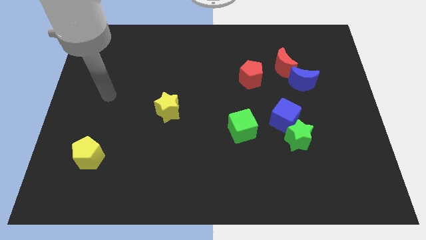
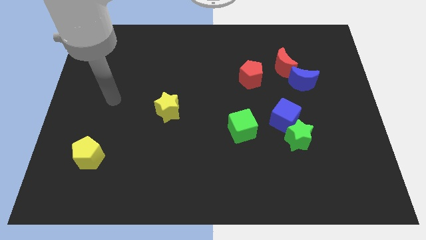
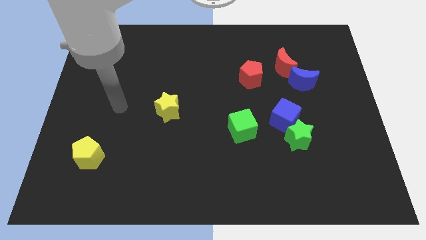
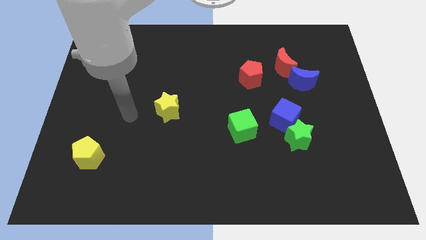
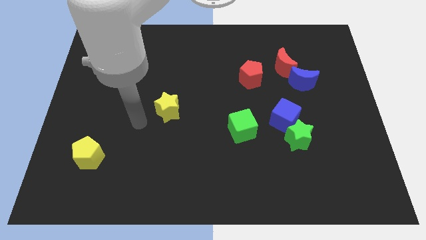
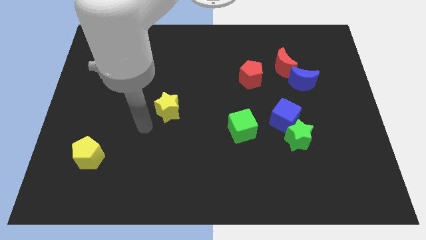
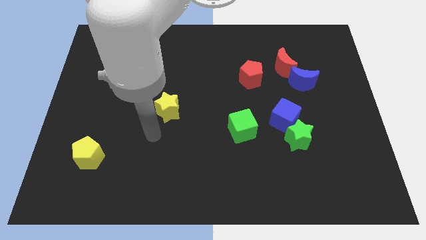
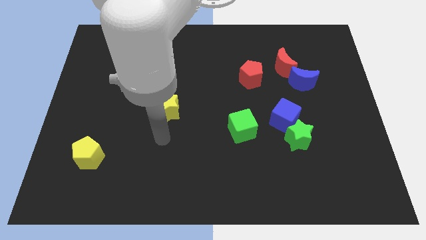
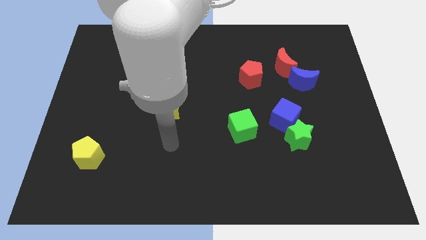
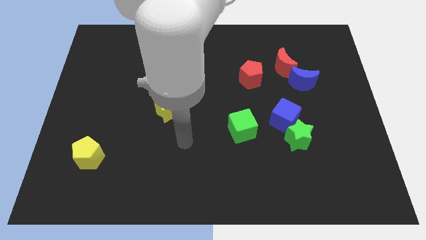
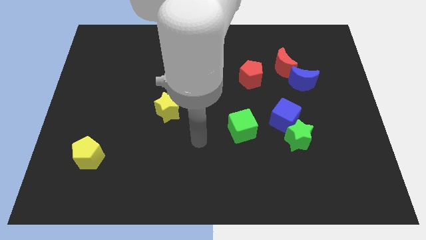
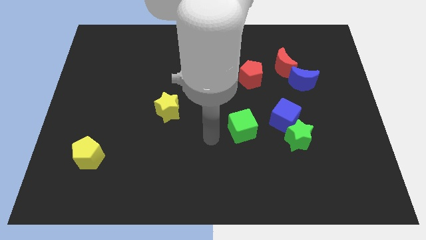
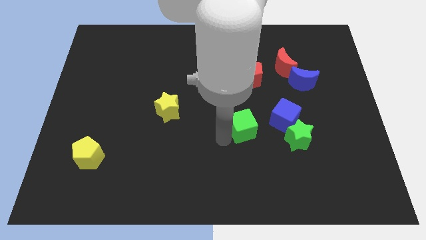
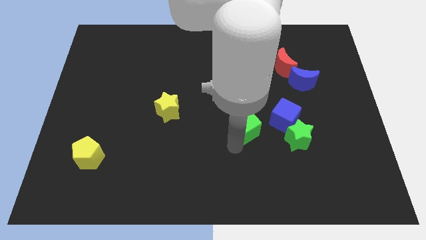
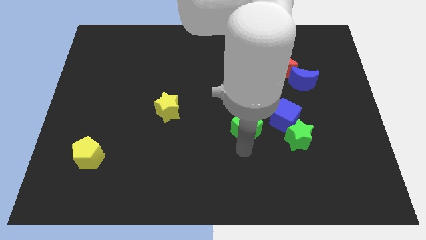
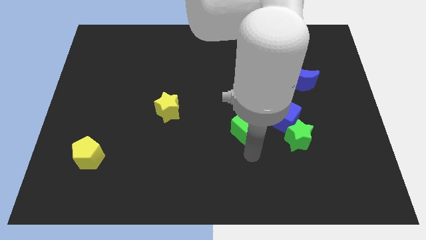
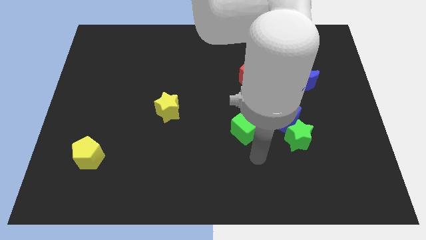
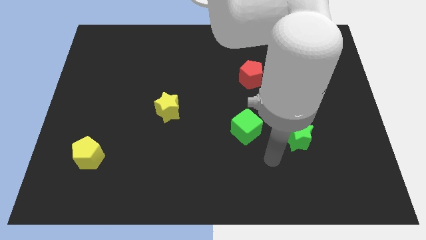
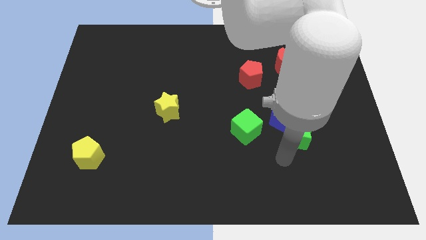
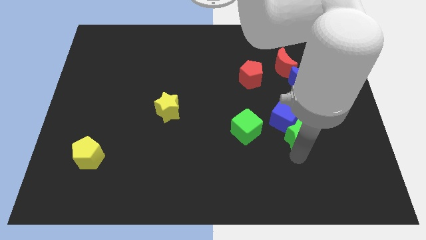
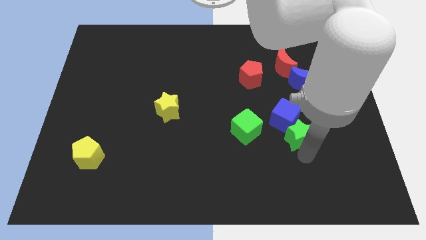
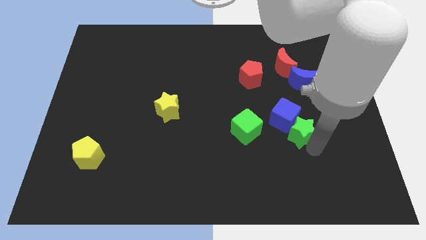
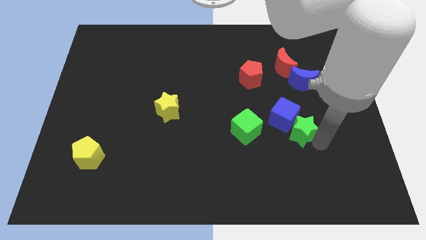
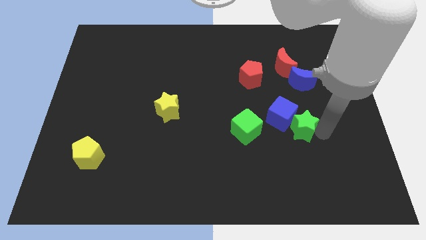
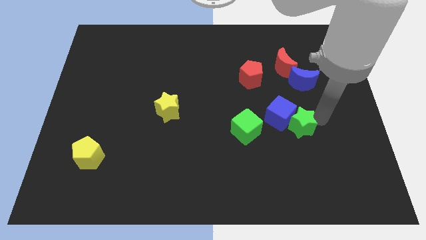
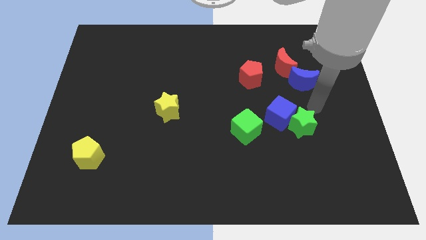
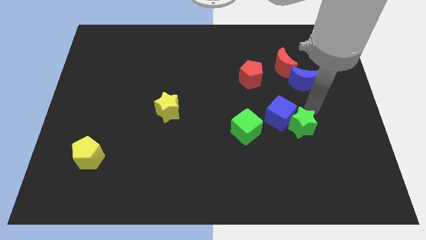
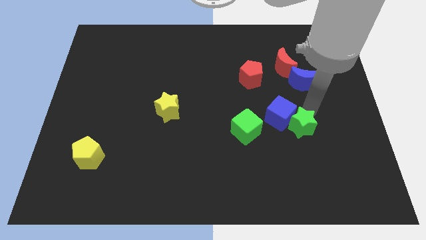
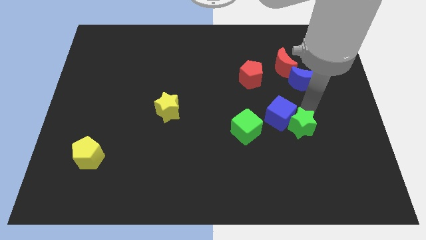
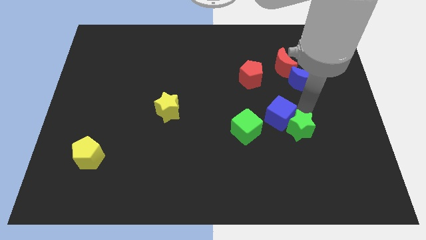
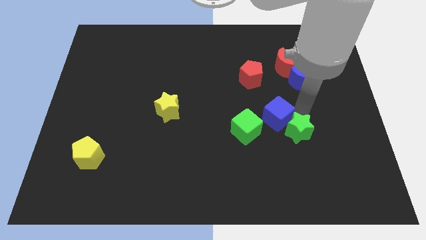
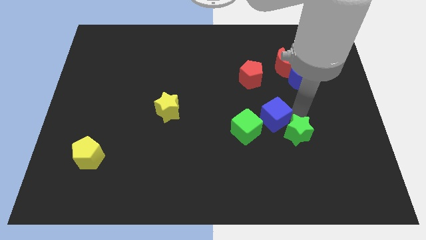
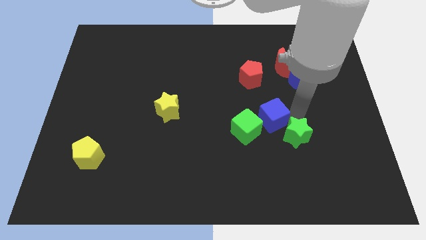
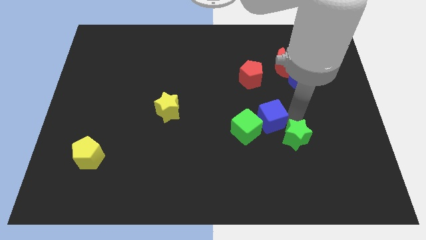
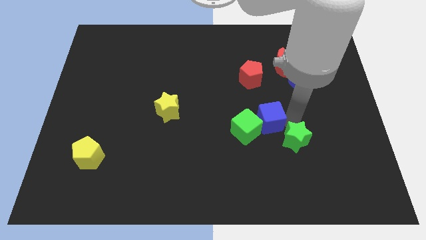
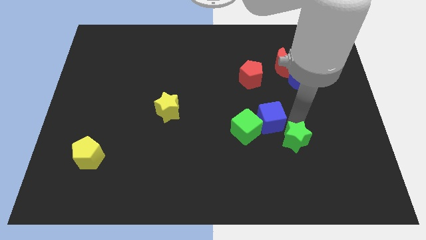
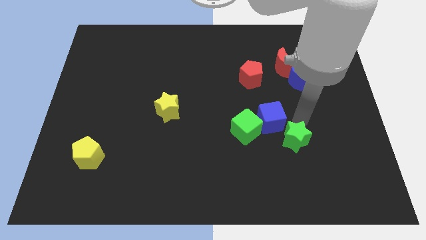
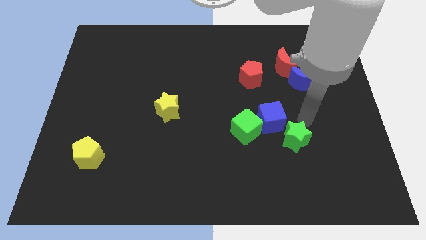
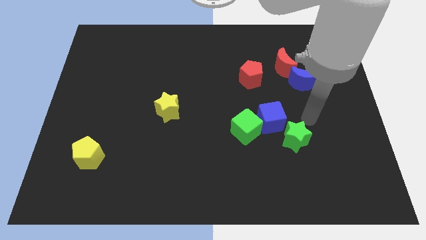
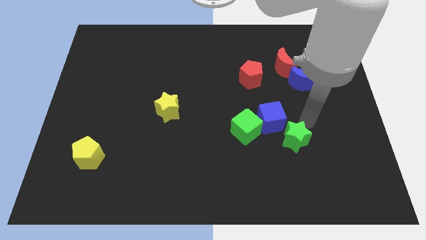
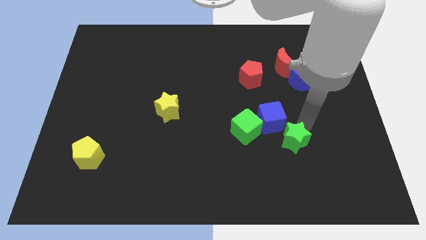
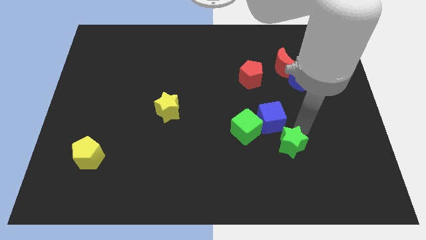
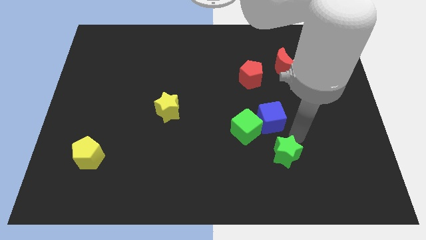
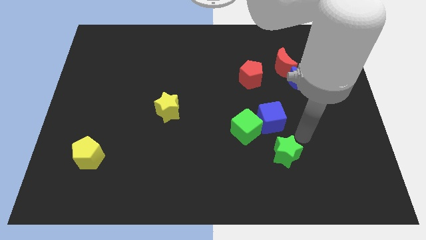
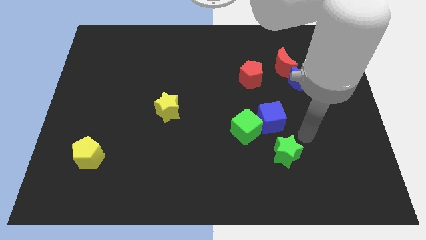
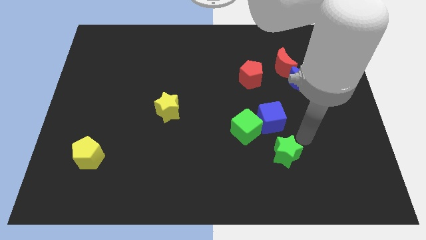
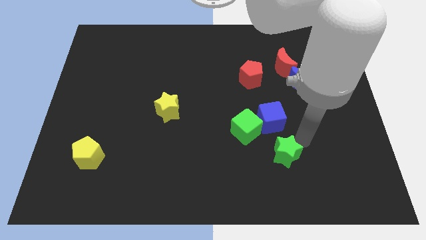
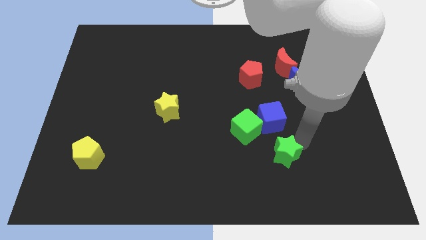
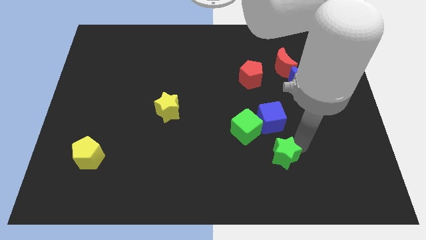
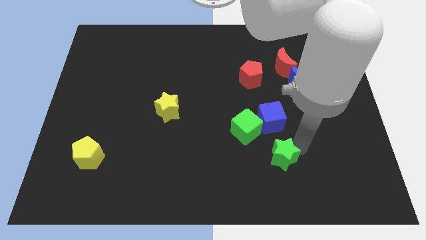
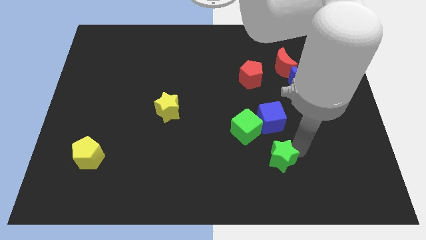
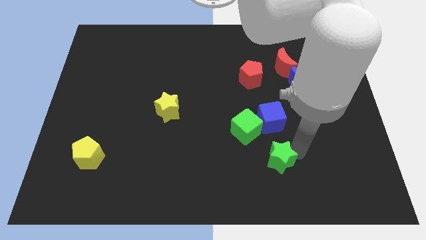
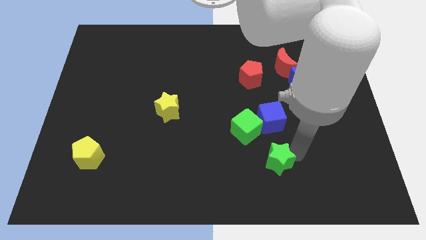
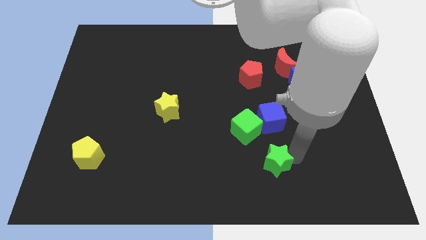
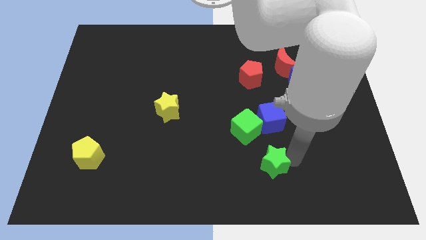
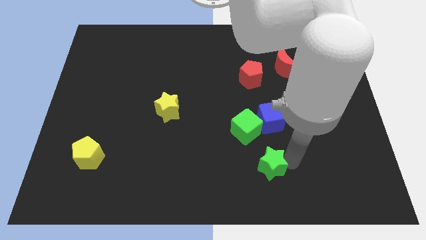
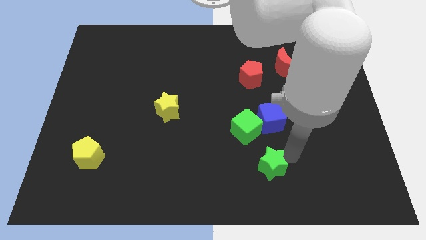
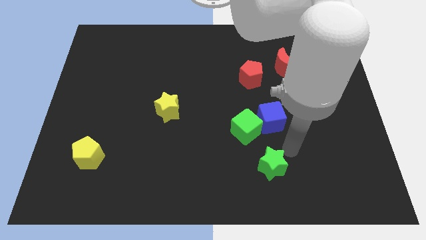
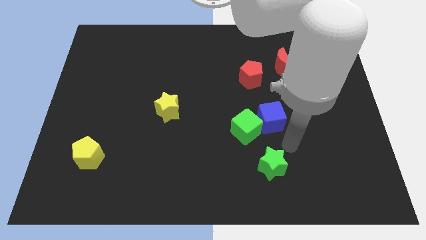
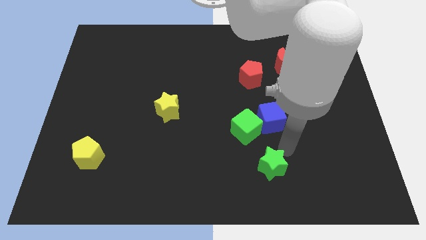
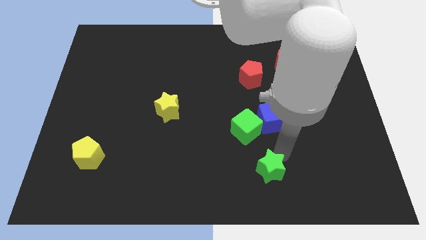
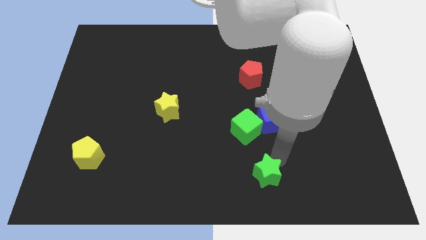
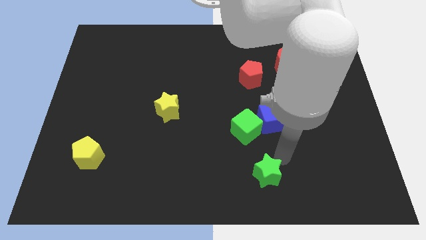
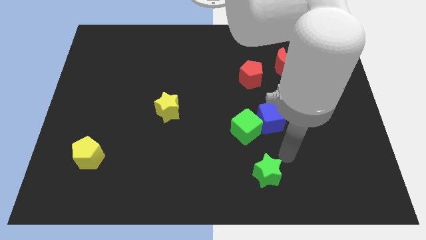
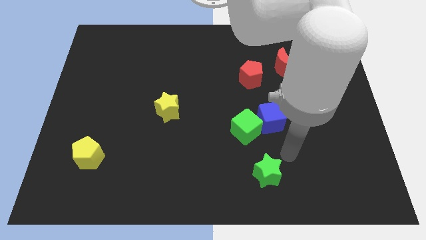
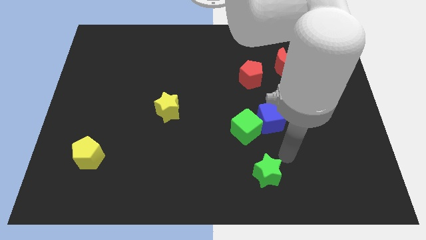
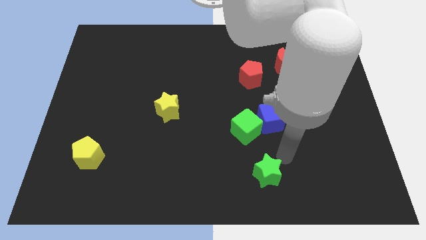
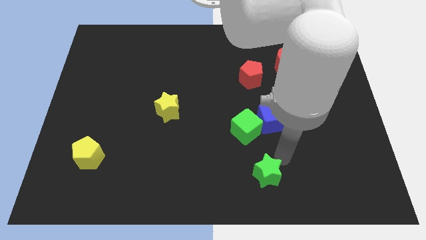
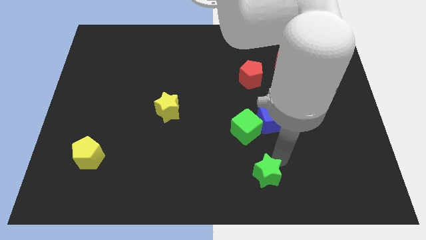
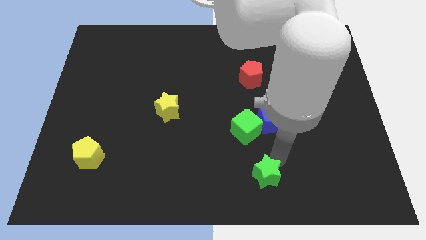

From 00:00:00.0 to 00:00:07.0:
slide the green star to the bottom side
